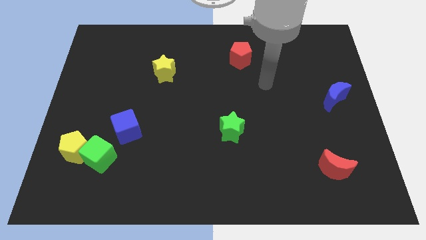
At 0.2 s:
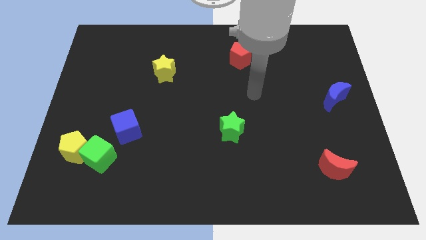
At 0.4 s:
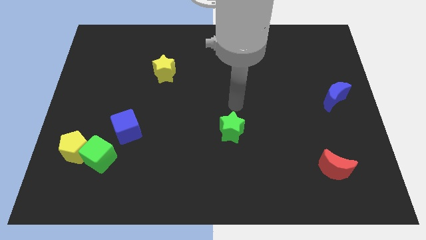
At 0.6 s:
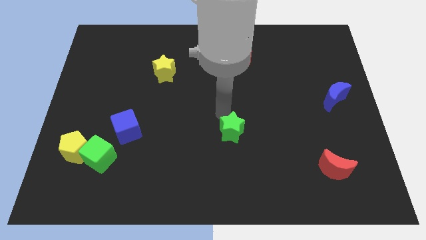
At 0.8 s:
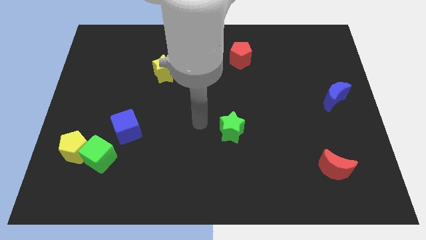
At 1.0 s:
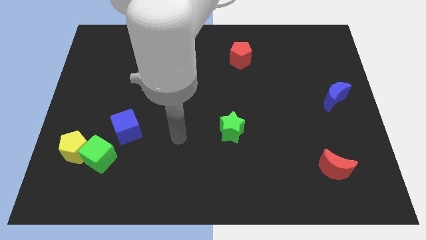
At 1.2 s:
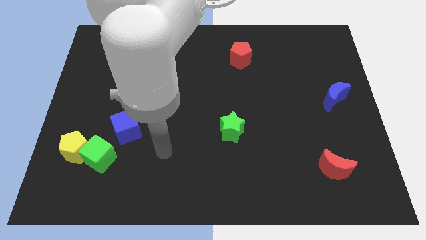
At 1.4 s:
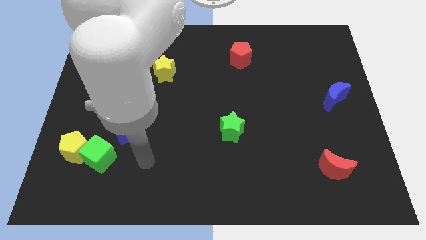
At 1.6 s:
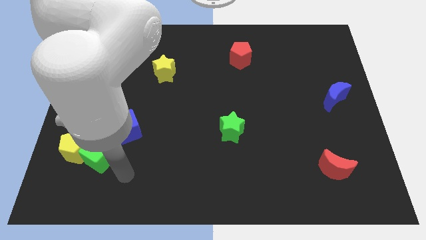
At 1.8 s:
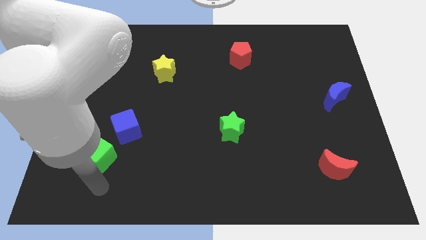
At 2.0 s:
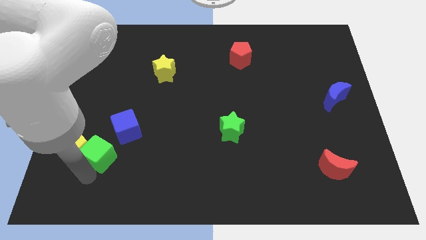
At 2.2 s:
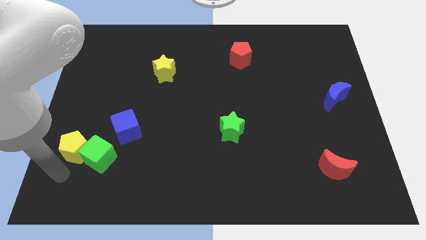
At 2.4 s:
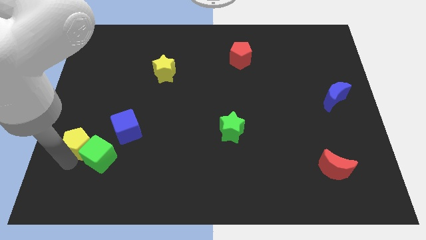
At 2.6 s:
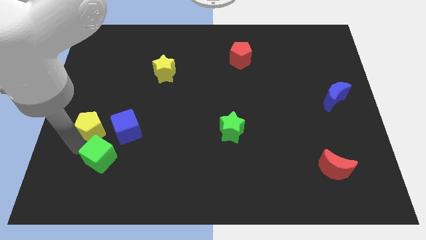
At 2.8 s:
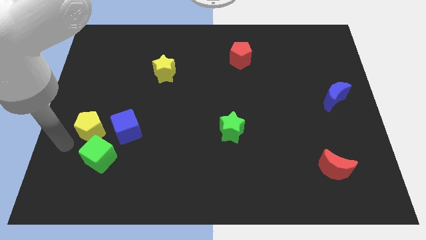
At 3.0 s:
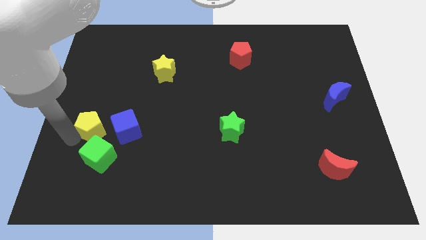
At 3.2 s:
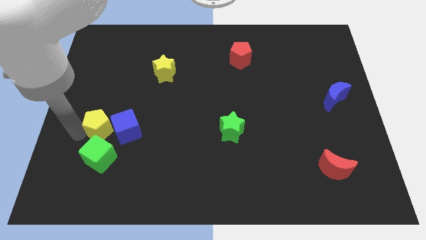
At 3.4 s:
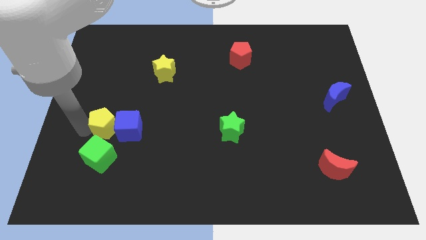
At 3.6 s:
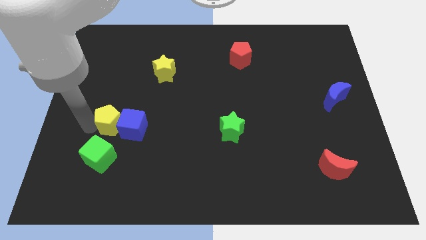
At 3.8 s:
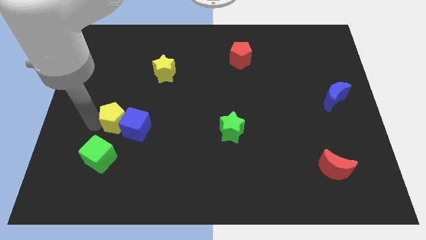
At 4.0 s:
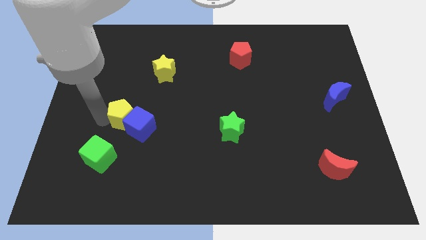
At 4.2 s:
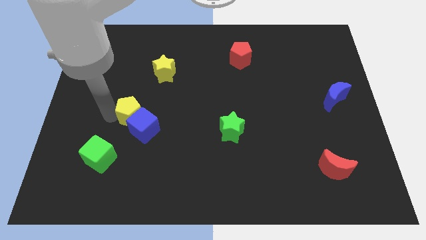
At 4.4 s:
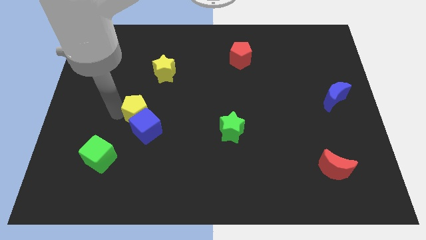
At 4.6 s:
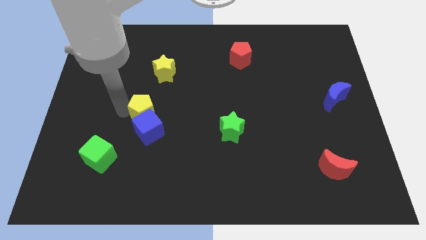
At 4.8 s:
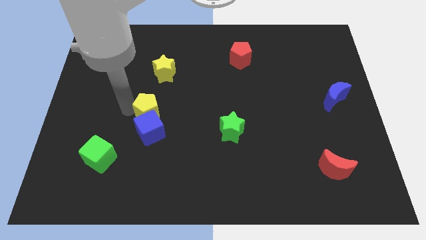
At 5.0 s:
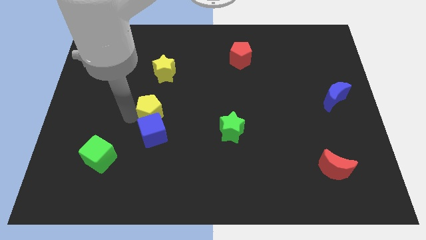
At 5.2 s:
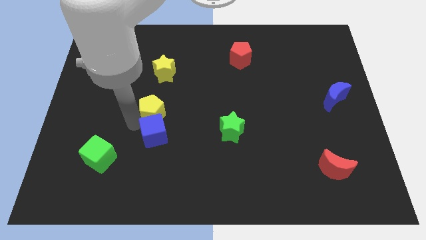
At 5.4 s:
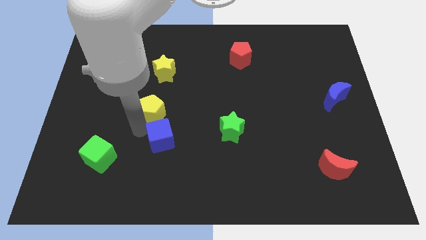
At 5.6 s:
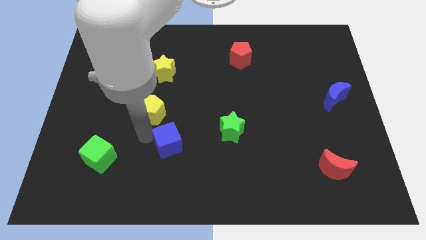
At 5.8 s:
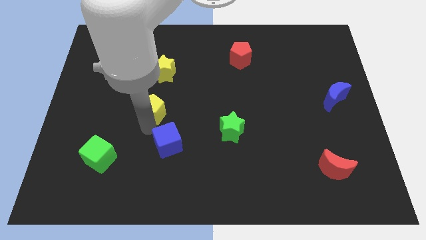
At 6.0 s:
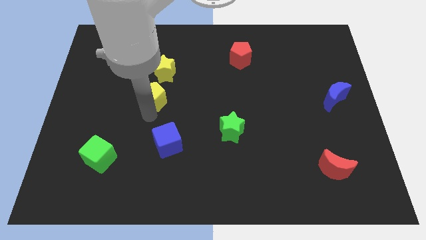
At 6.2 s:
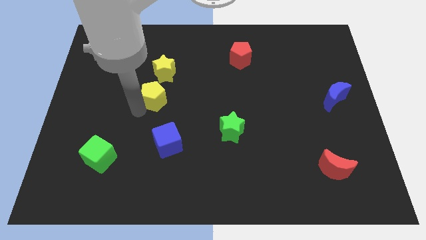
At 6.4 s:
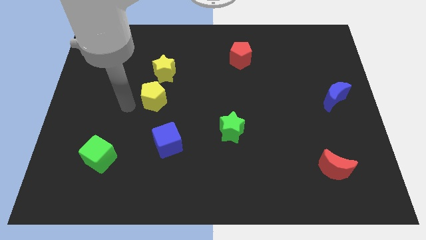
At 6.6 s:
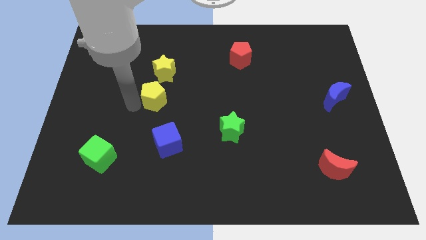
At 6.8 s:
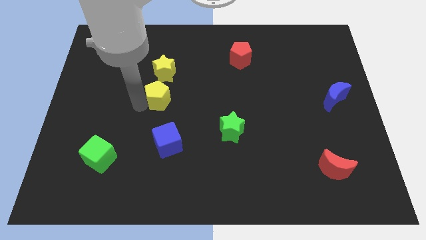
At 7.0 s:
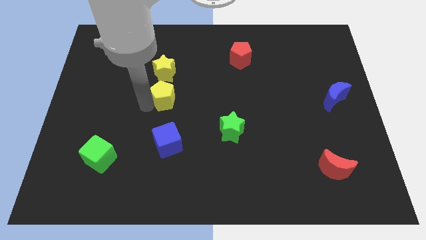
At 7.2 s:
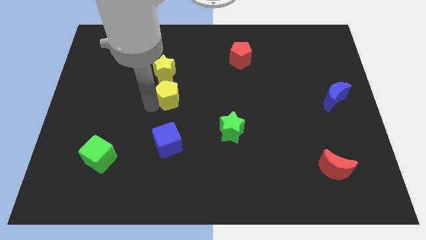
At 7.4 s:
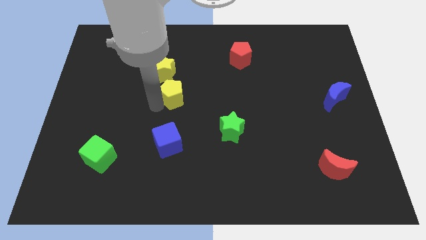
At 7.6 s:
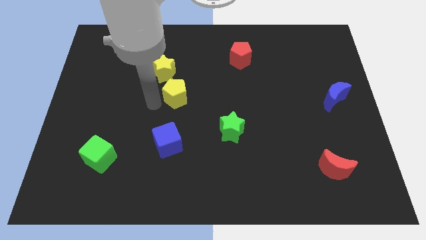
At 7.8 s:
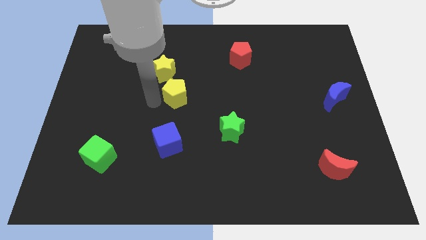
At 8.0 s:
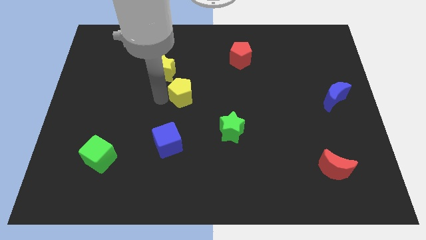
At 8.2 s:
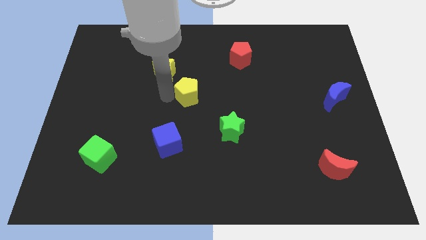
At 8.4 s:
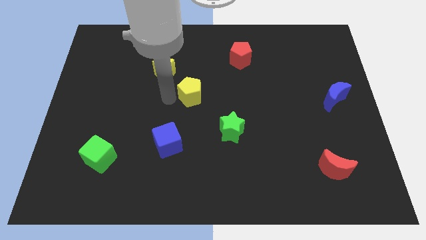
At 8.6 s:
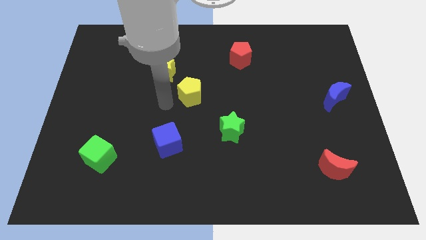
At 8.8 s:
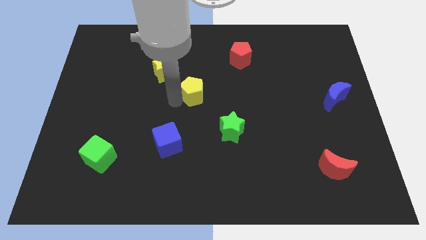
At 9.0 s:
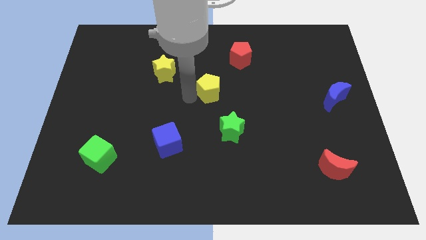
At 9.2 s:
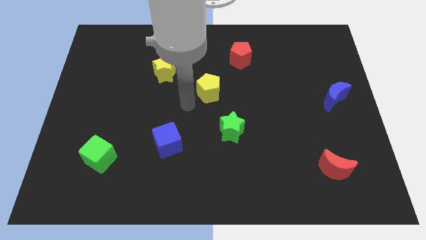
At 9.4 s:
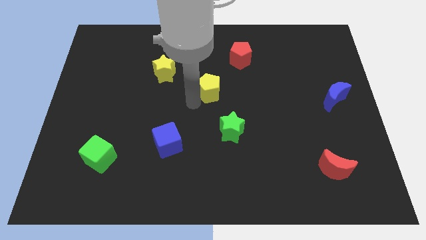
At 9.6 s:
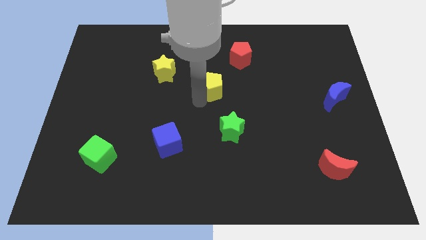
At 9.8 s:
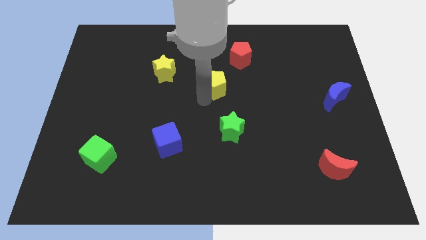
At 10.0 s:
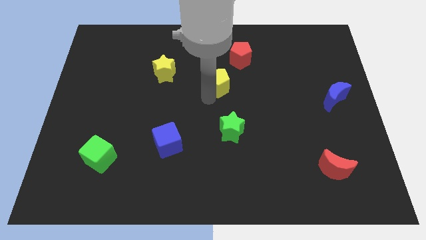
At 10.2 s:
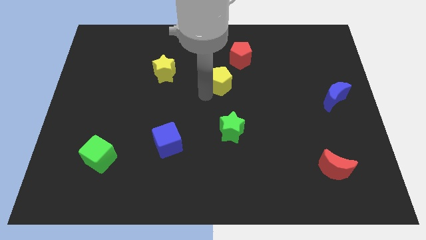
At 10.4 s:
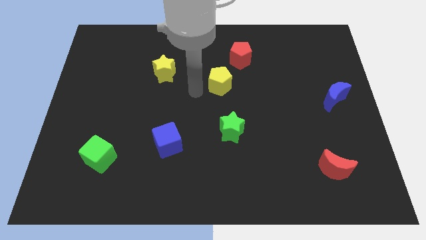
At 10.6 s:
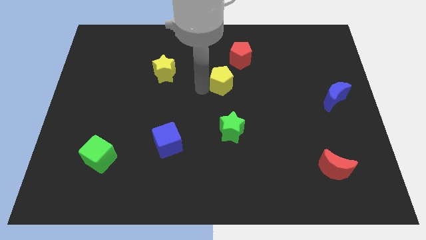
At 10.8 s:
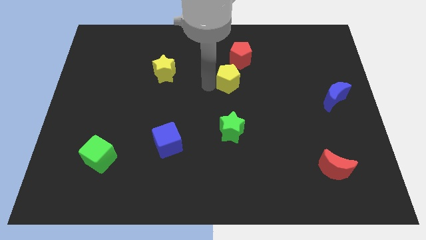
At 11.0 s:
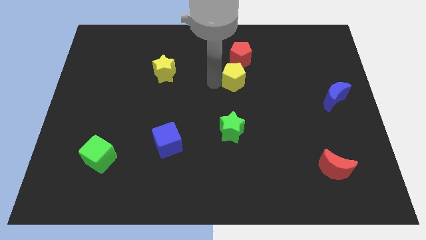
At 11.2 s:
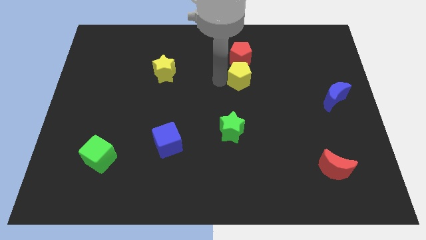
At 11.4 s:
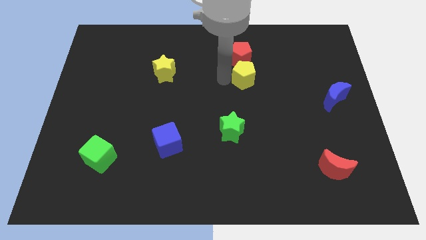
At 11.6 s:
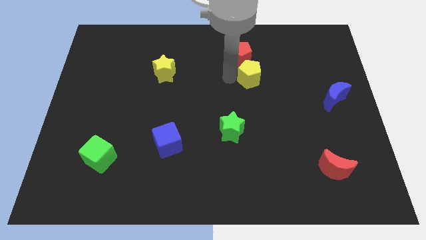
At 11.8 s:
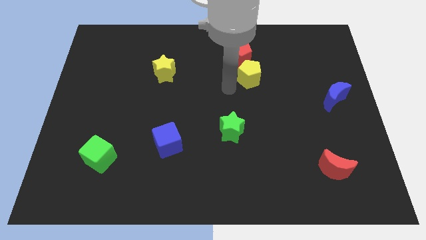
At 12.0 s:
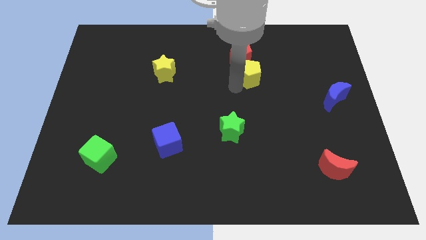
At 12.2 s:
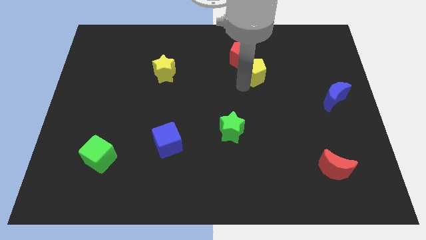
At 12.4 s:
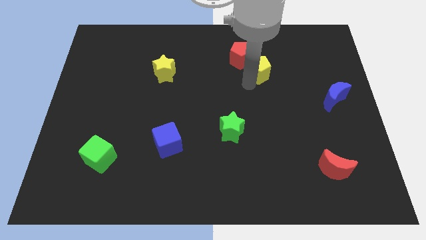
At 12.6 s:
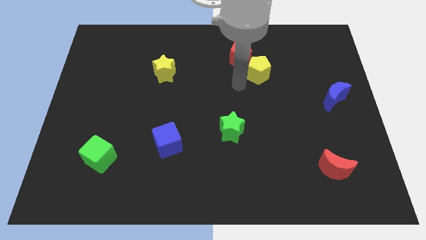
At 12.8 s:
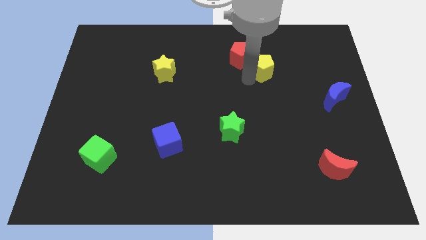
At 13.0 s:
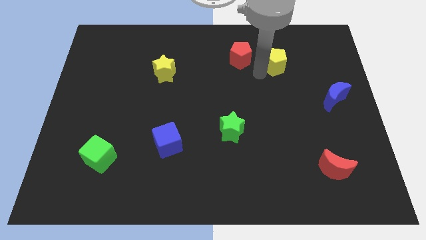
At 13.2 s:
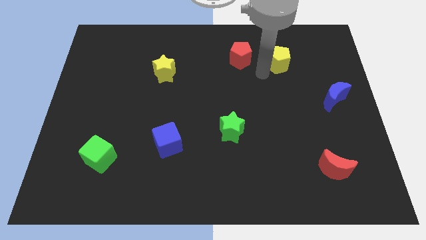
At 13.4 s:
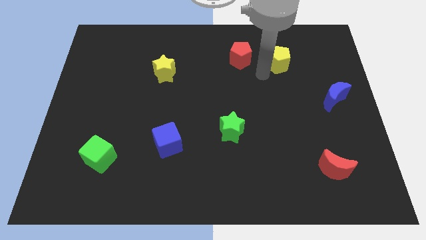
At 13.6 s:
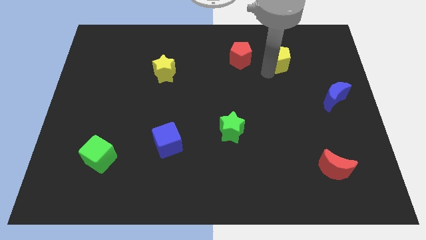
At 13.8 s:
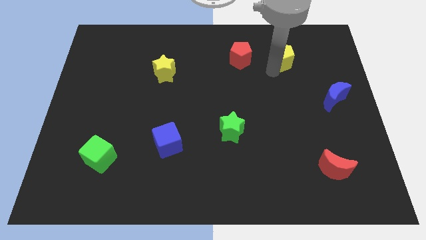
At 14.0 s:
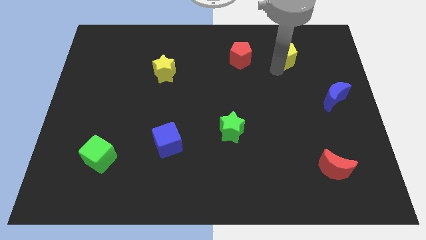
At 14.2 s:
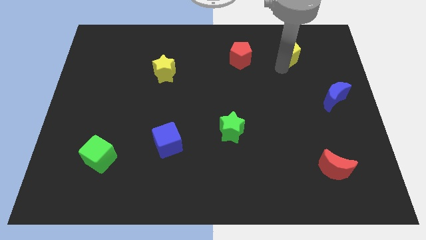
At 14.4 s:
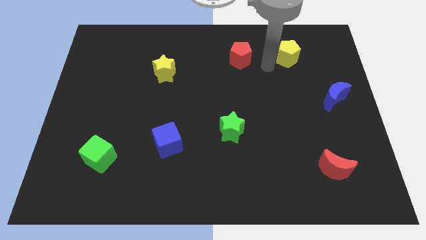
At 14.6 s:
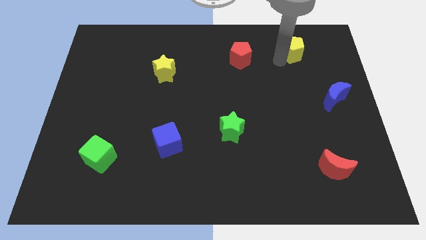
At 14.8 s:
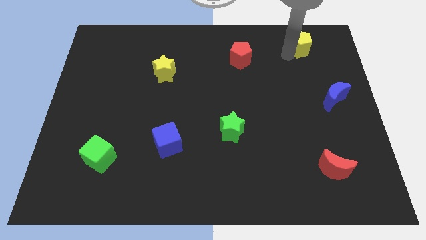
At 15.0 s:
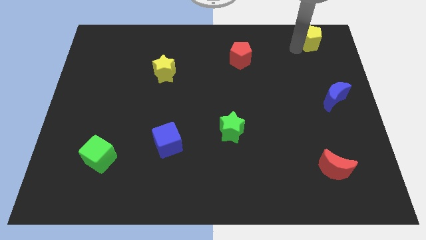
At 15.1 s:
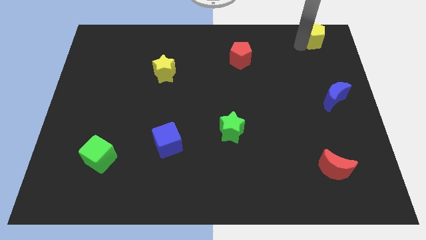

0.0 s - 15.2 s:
slide the yellow pentagon to the top right
